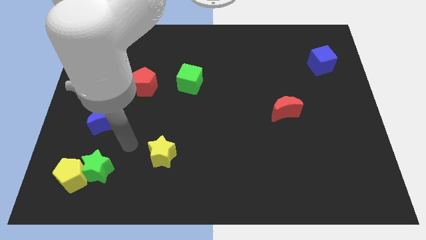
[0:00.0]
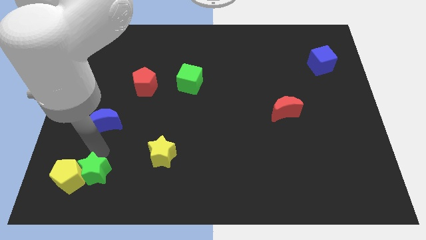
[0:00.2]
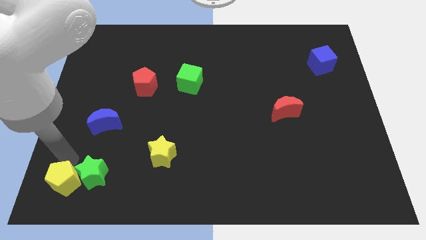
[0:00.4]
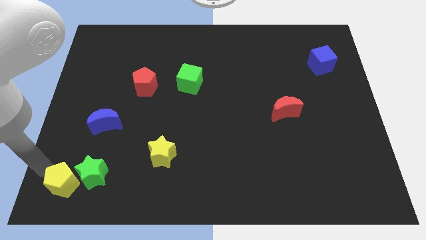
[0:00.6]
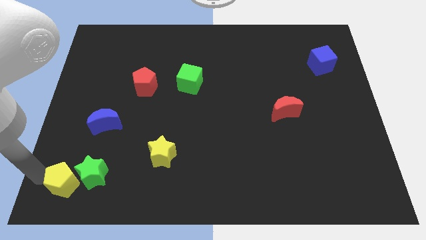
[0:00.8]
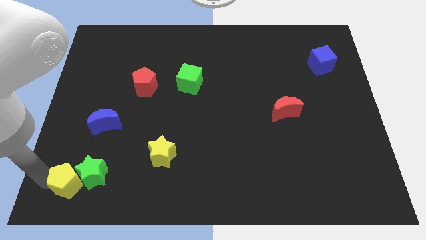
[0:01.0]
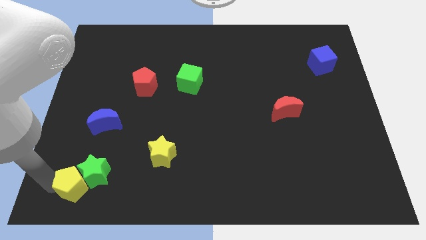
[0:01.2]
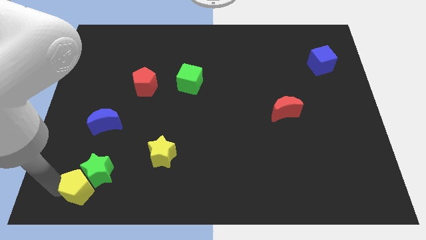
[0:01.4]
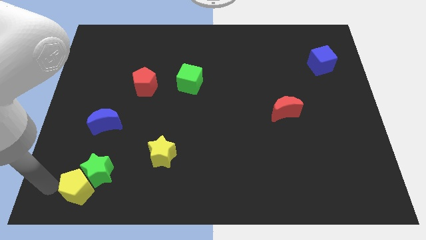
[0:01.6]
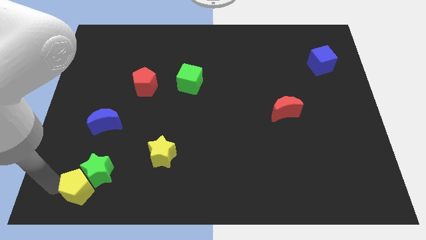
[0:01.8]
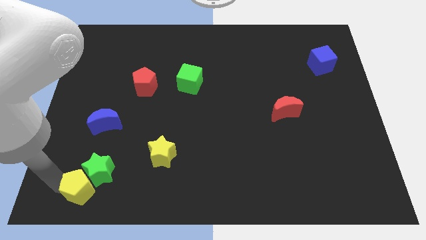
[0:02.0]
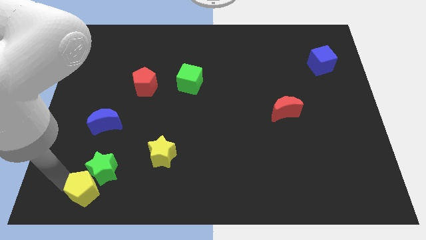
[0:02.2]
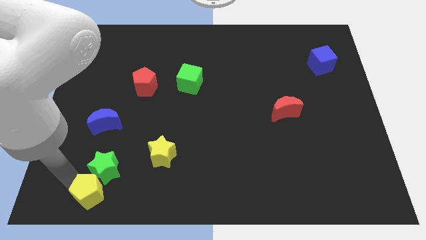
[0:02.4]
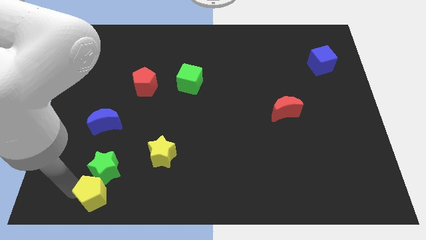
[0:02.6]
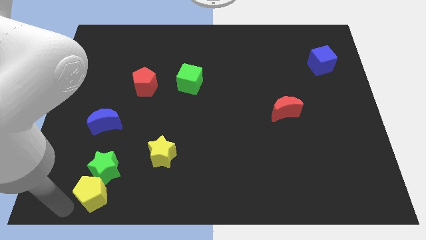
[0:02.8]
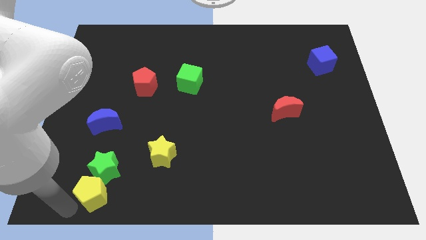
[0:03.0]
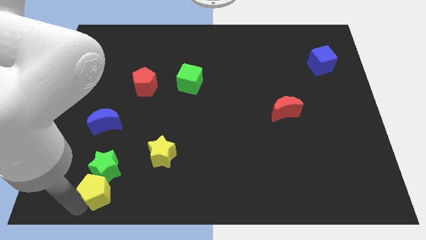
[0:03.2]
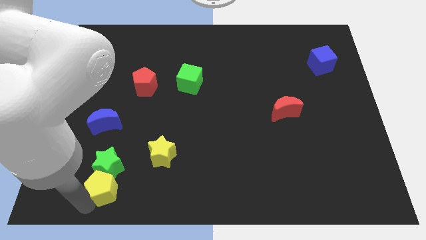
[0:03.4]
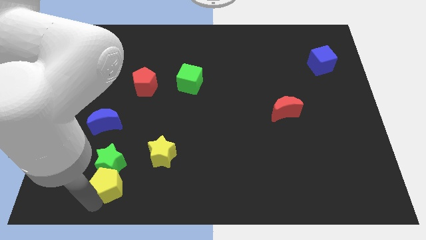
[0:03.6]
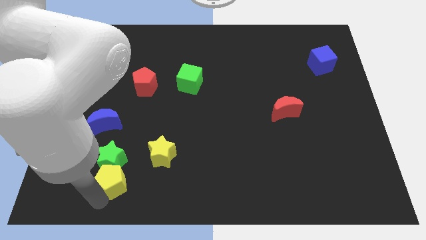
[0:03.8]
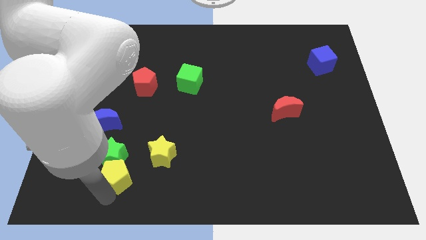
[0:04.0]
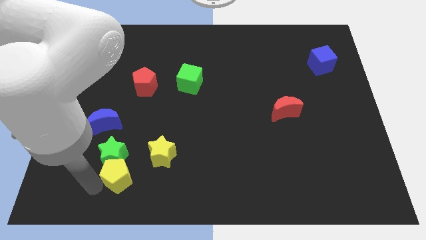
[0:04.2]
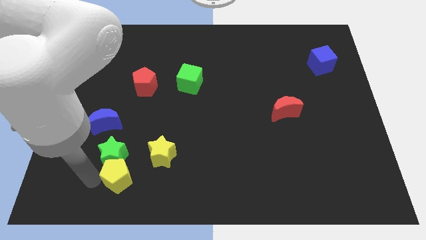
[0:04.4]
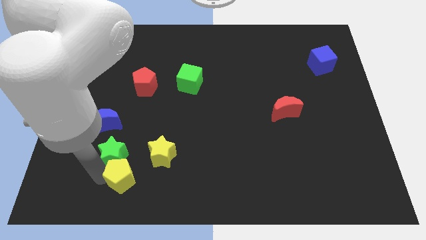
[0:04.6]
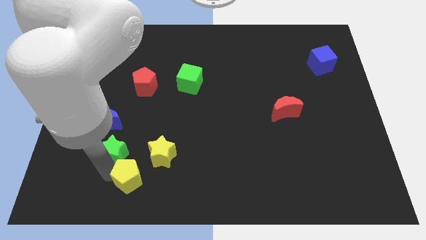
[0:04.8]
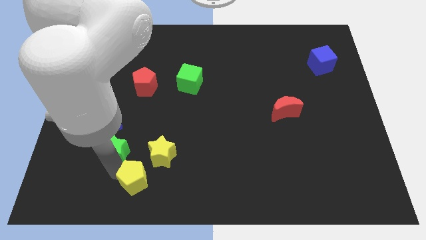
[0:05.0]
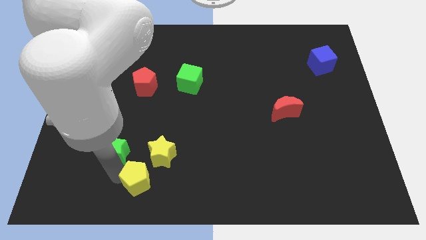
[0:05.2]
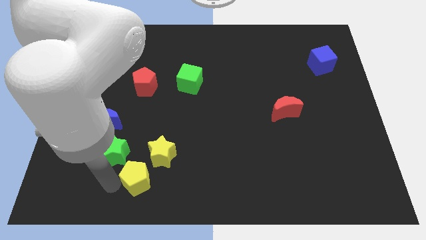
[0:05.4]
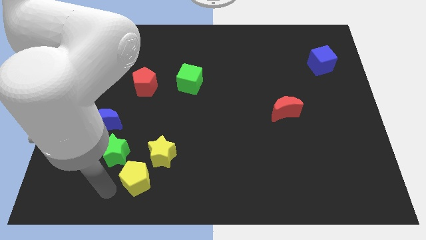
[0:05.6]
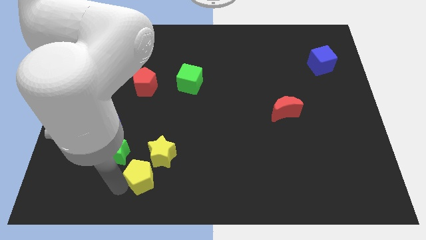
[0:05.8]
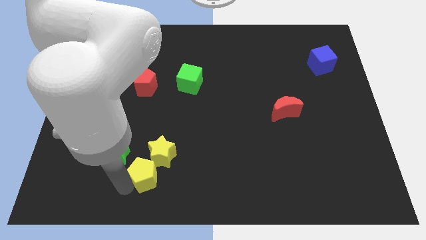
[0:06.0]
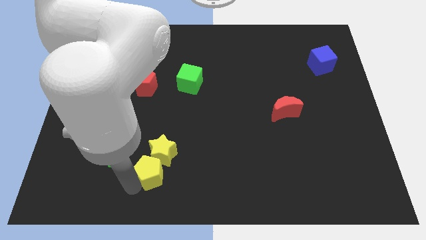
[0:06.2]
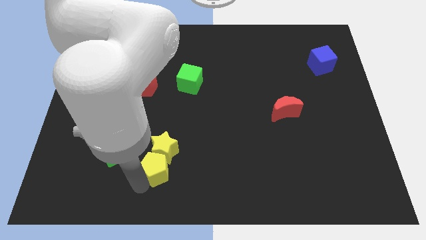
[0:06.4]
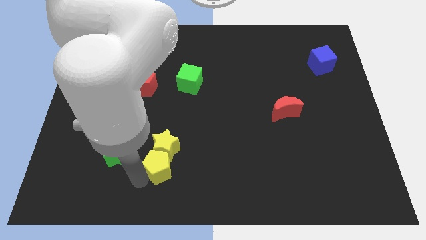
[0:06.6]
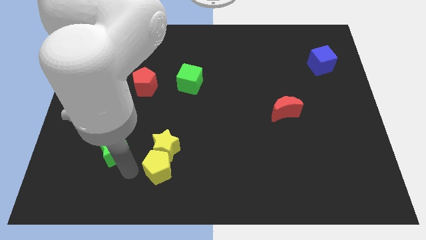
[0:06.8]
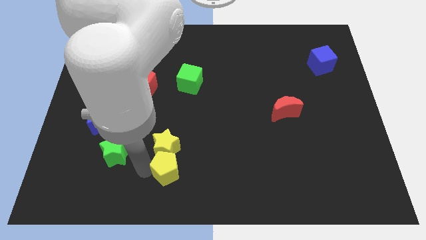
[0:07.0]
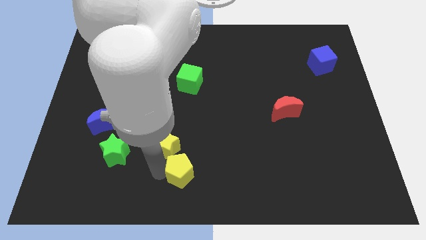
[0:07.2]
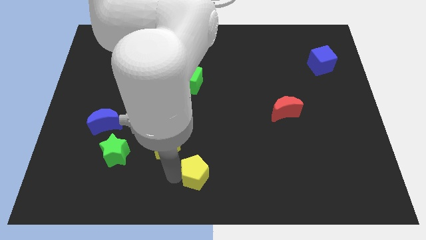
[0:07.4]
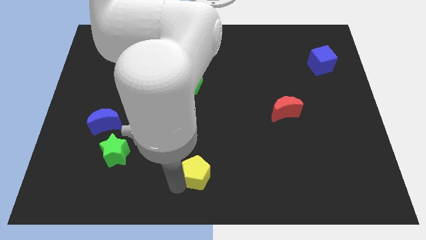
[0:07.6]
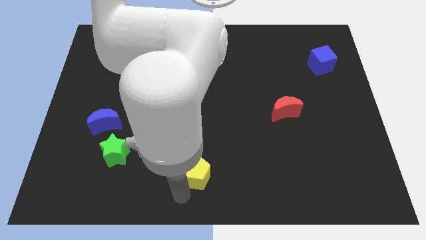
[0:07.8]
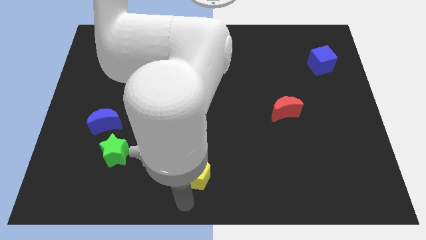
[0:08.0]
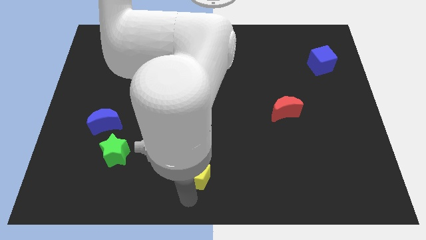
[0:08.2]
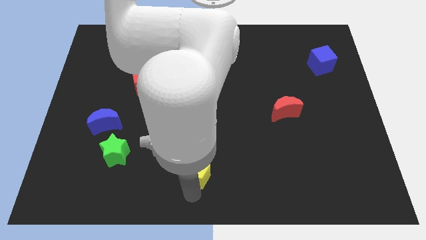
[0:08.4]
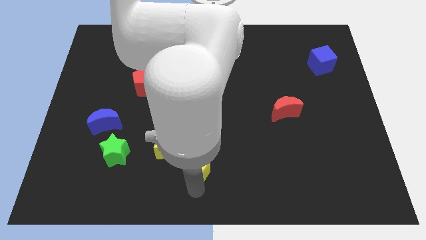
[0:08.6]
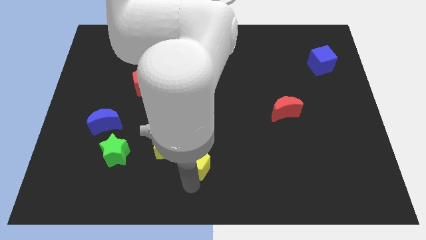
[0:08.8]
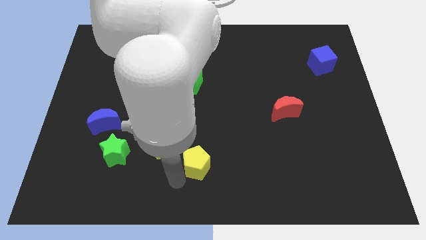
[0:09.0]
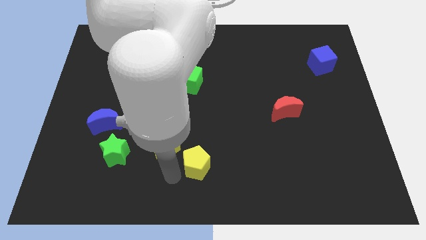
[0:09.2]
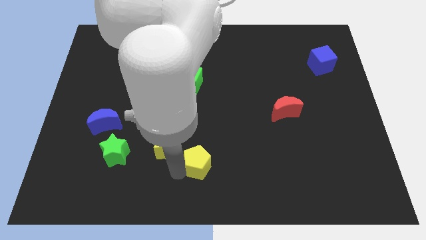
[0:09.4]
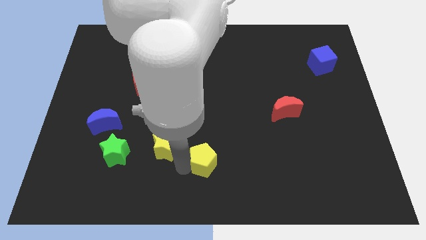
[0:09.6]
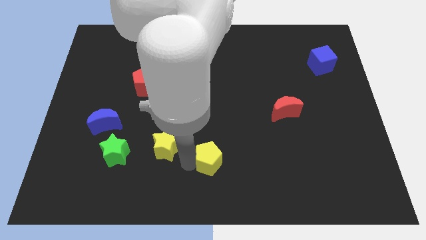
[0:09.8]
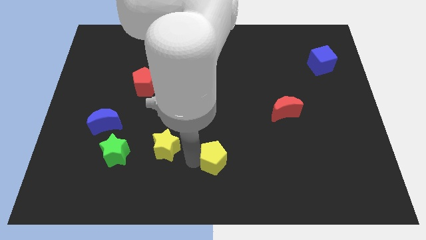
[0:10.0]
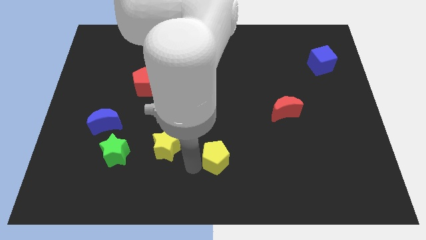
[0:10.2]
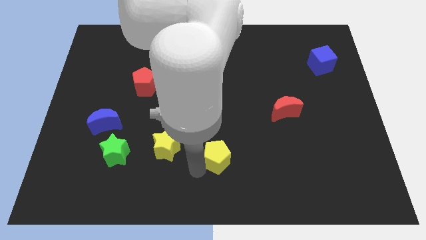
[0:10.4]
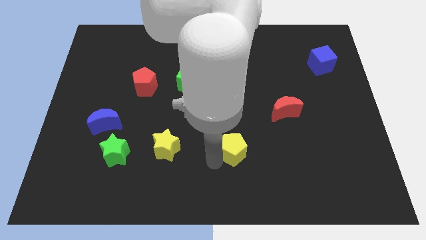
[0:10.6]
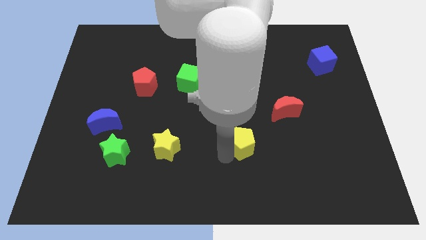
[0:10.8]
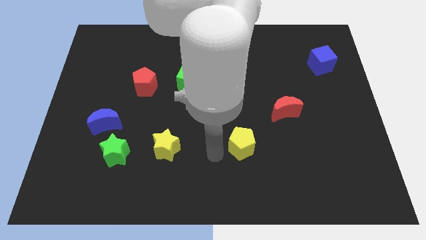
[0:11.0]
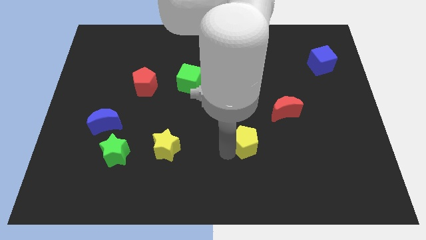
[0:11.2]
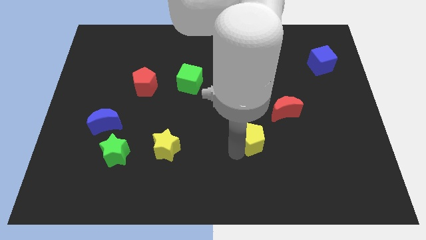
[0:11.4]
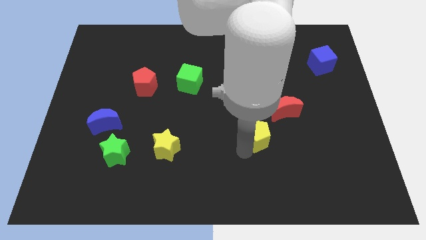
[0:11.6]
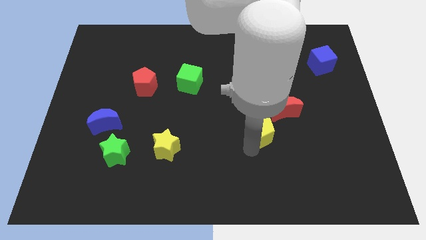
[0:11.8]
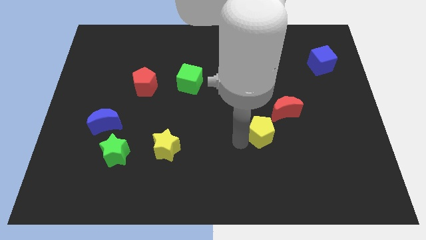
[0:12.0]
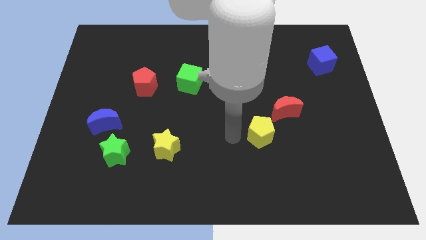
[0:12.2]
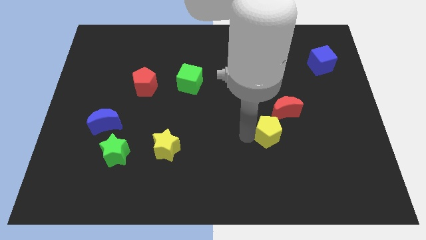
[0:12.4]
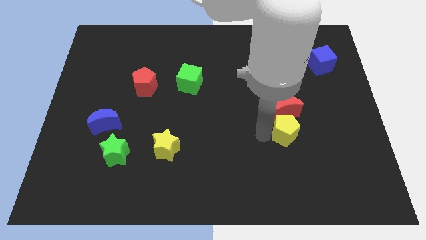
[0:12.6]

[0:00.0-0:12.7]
push the yellow pentagon diagonally down and to the right of the red moon
